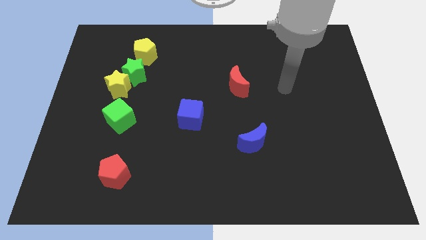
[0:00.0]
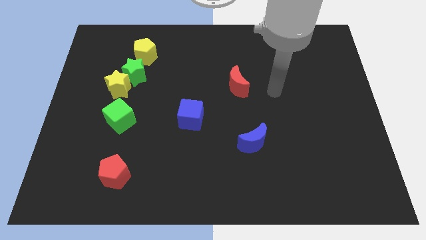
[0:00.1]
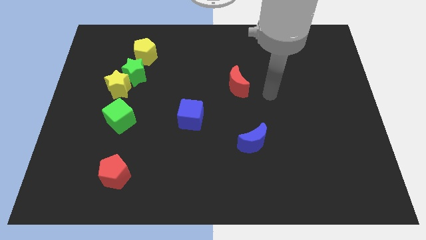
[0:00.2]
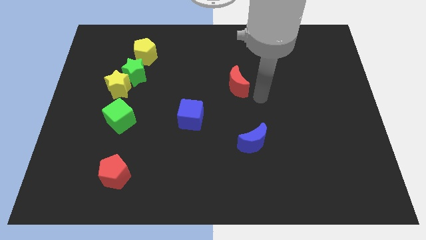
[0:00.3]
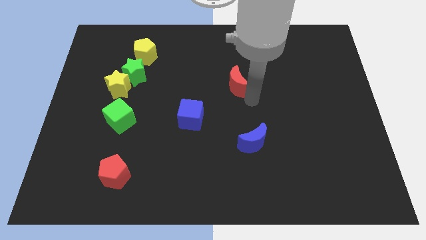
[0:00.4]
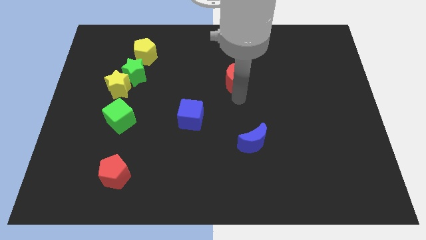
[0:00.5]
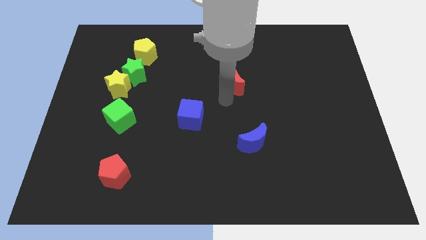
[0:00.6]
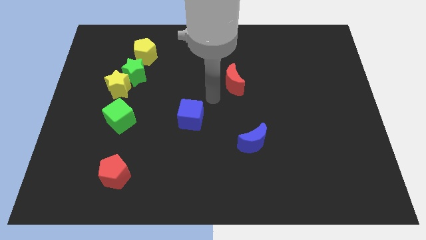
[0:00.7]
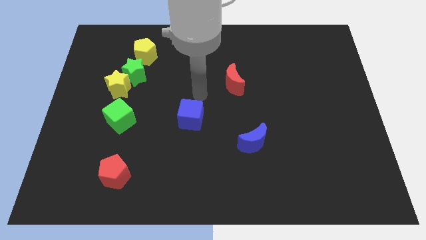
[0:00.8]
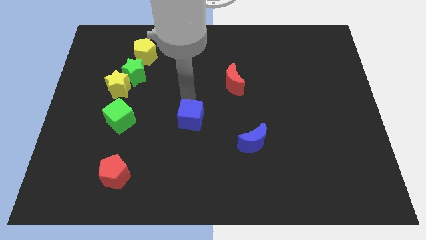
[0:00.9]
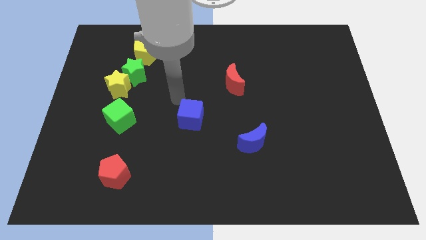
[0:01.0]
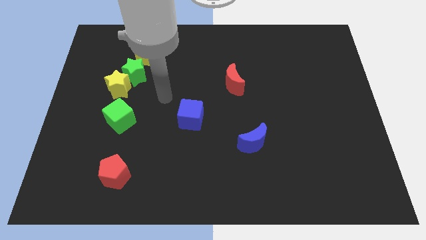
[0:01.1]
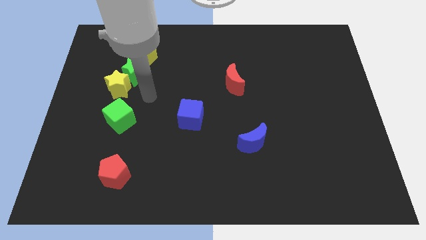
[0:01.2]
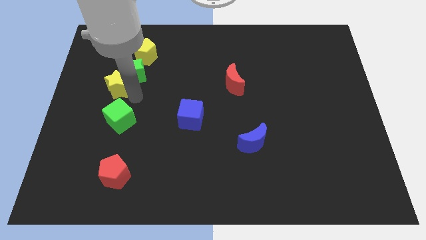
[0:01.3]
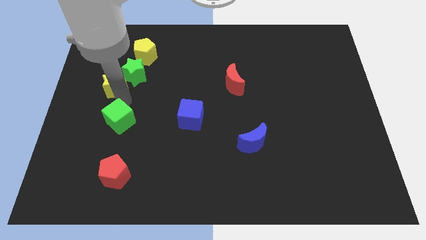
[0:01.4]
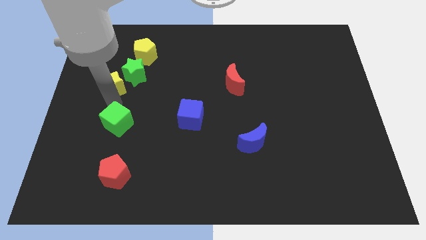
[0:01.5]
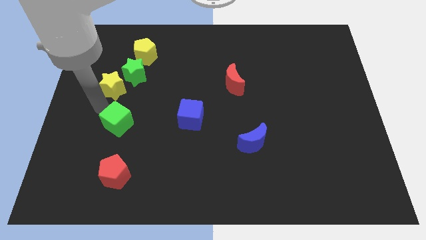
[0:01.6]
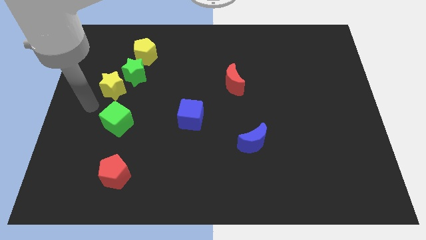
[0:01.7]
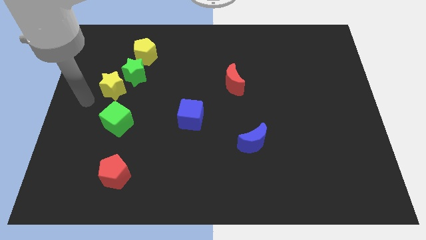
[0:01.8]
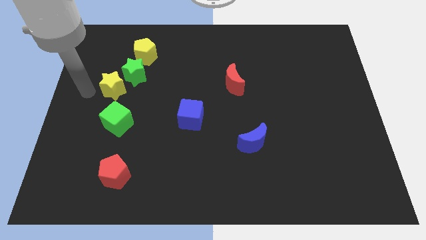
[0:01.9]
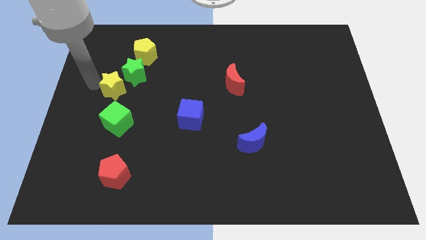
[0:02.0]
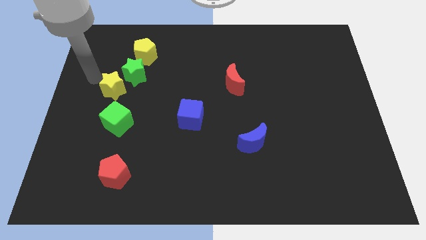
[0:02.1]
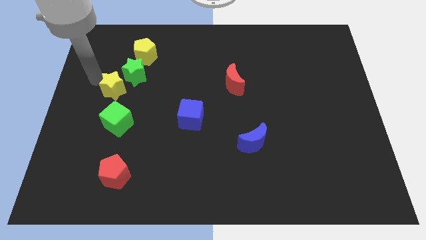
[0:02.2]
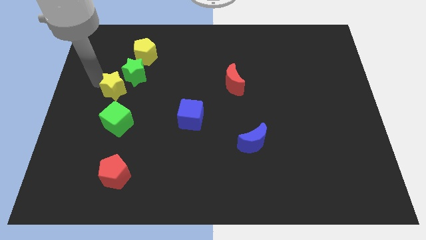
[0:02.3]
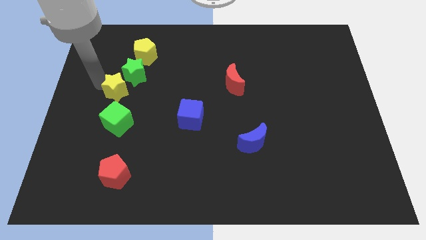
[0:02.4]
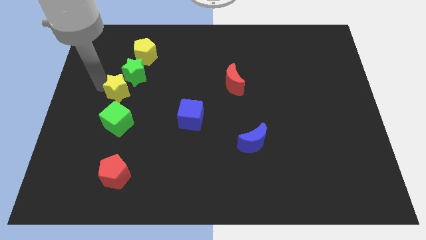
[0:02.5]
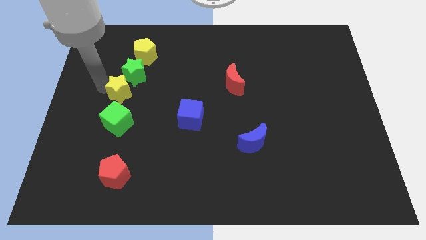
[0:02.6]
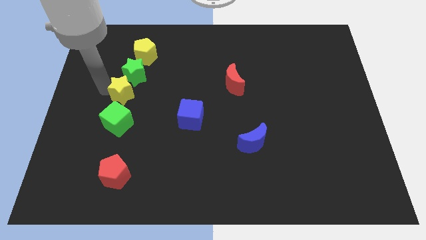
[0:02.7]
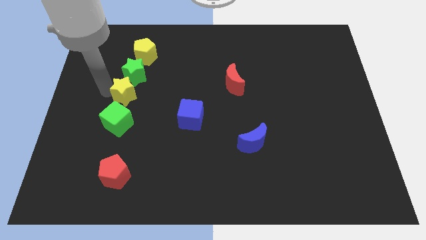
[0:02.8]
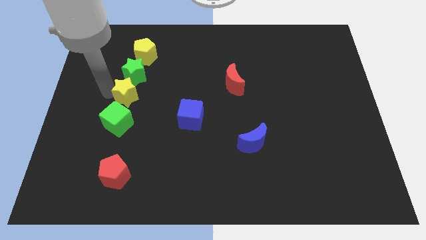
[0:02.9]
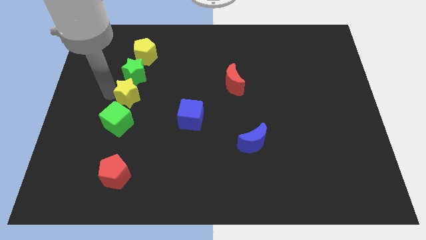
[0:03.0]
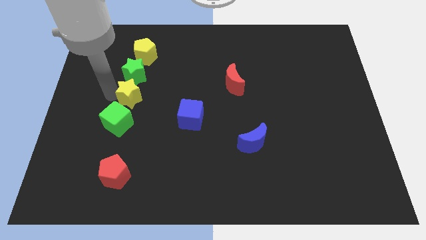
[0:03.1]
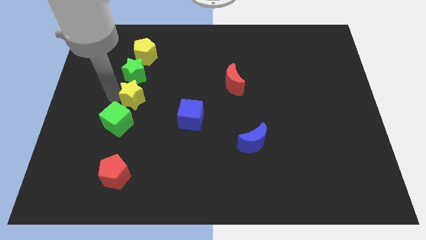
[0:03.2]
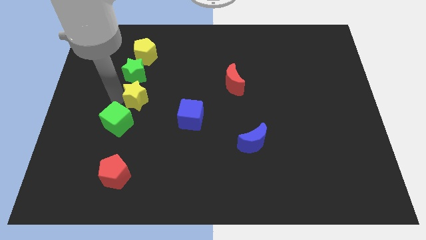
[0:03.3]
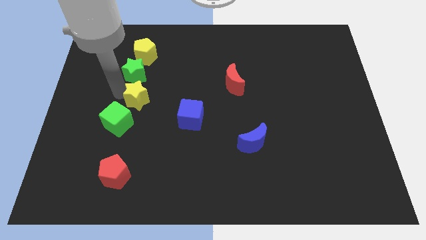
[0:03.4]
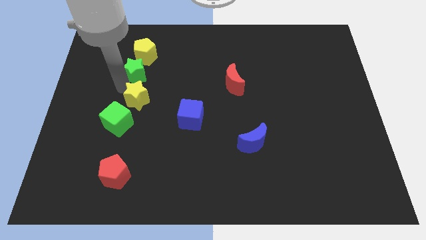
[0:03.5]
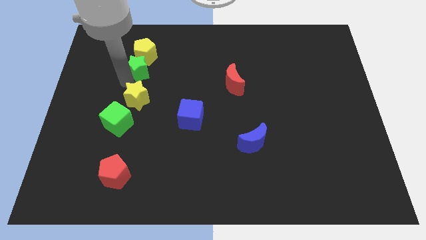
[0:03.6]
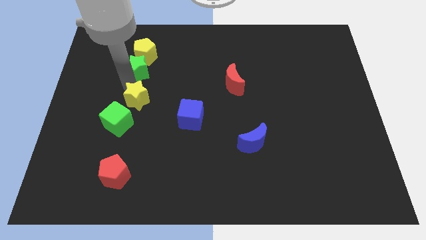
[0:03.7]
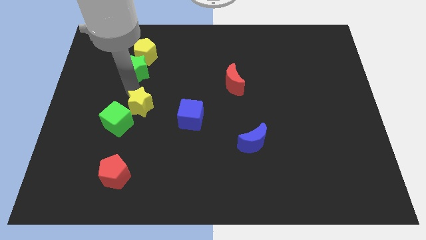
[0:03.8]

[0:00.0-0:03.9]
move the yellow star a little diagonally down and to the right

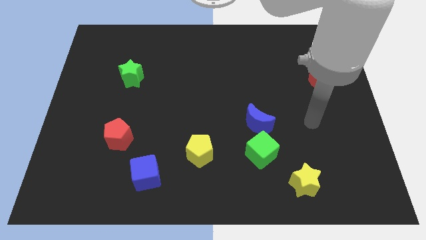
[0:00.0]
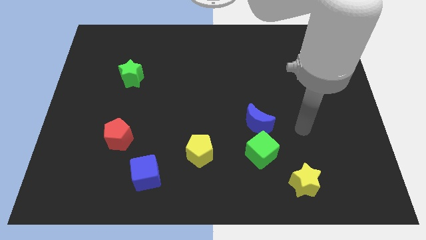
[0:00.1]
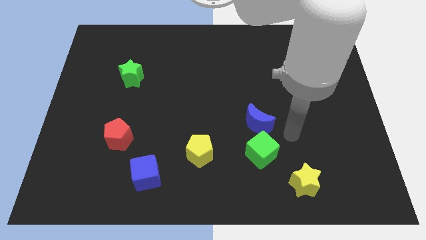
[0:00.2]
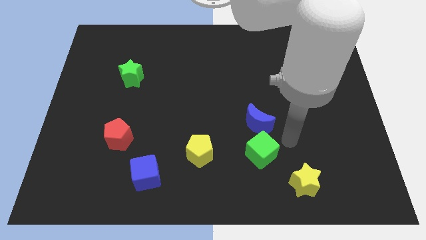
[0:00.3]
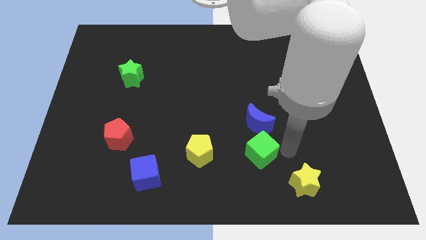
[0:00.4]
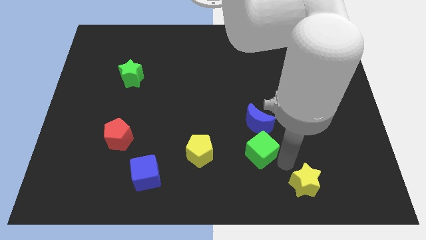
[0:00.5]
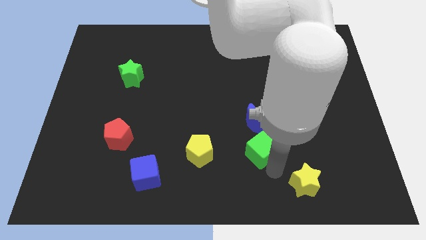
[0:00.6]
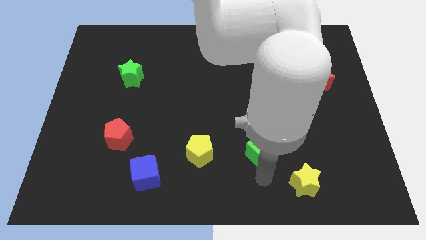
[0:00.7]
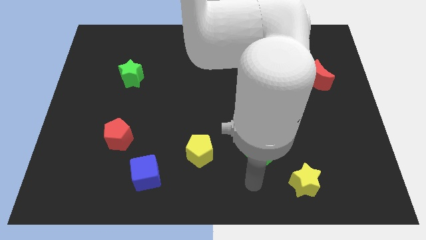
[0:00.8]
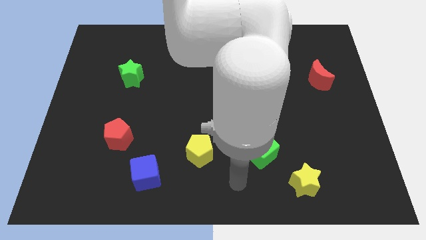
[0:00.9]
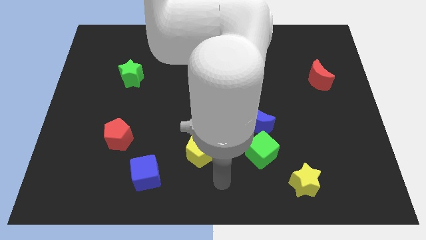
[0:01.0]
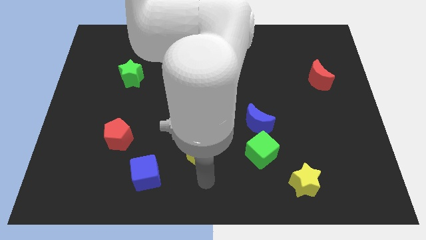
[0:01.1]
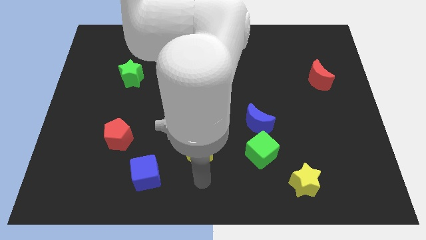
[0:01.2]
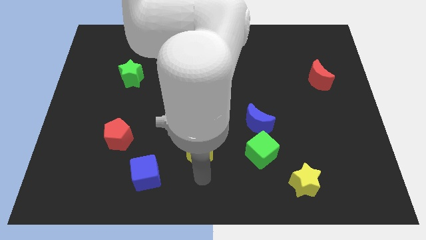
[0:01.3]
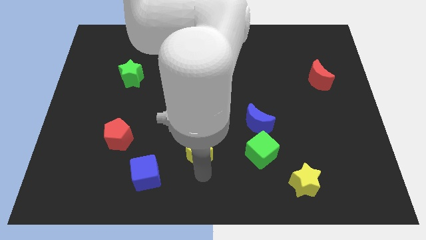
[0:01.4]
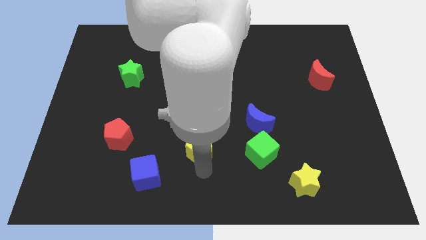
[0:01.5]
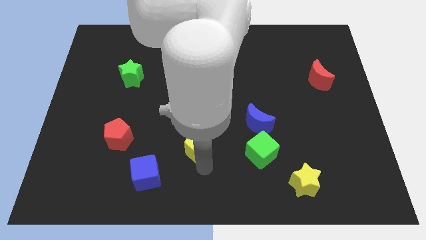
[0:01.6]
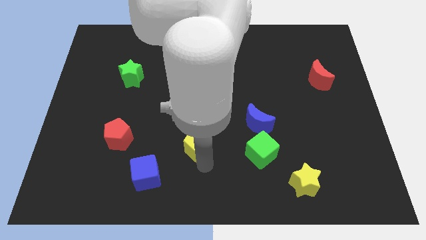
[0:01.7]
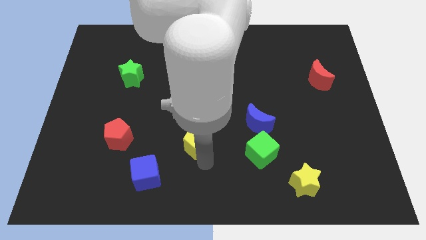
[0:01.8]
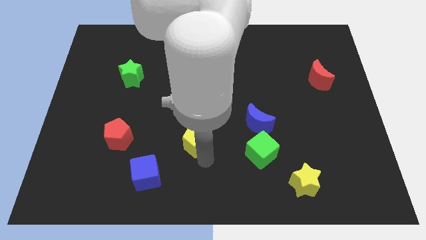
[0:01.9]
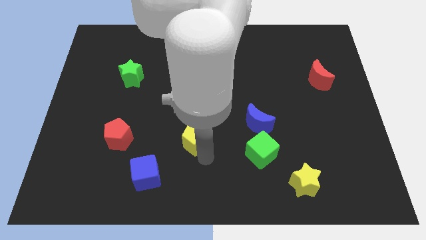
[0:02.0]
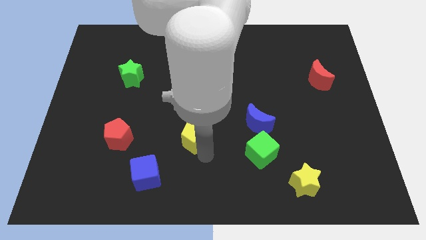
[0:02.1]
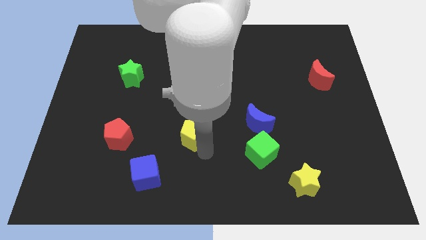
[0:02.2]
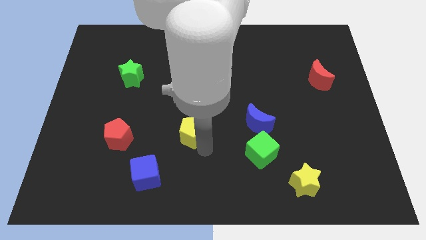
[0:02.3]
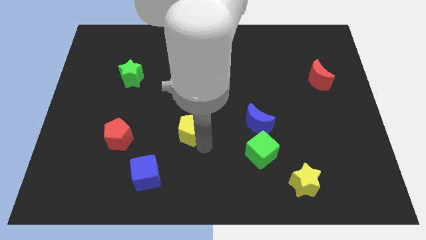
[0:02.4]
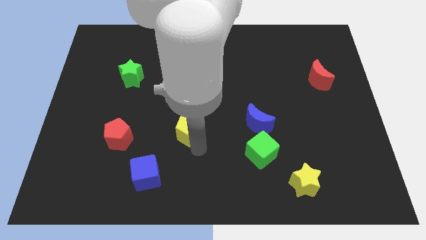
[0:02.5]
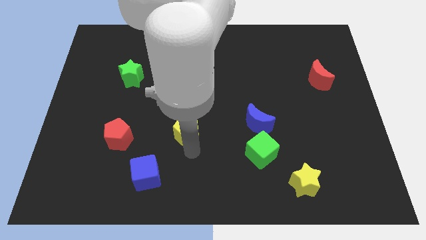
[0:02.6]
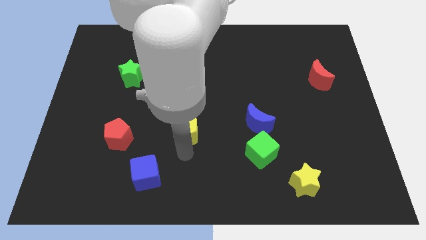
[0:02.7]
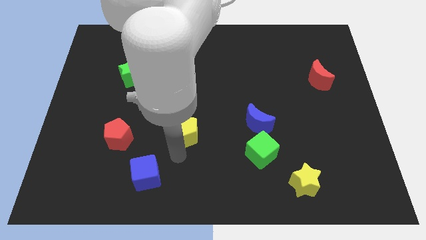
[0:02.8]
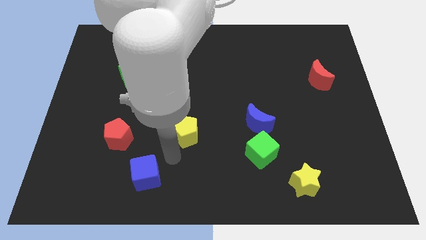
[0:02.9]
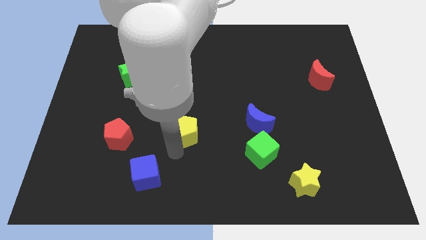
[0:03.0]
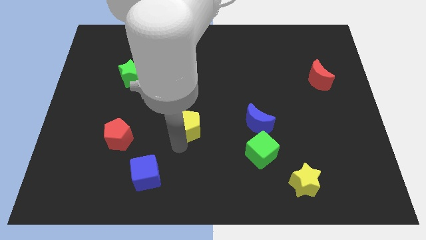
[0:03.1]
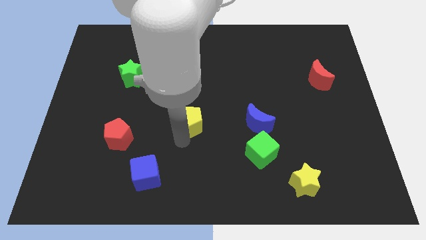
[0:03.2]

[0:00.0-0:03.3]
slightly move the yellow pentagon up

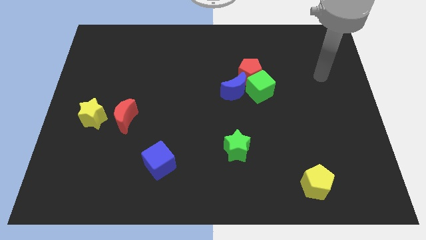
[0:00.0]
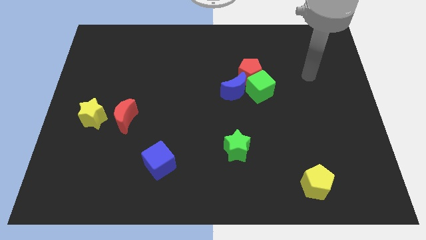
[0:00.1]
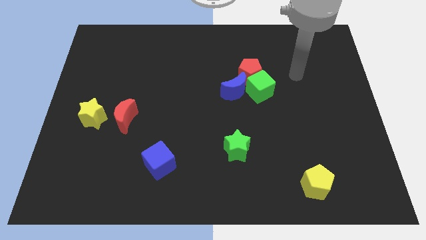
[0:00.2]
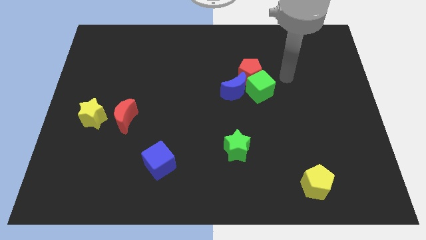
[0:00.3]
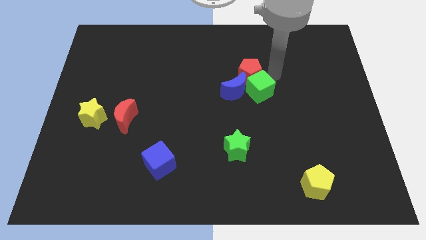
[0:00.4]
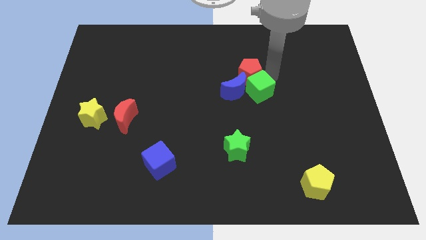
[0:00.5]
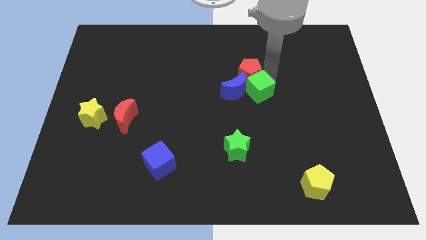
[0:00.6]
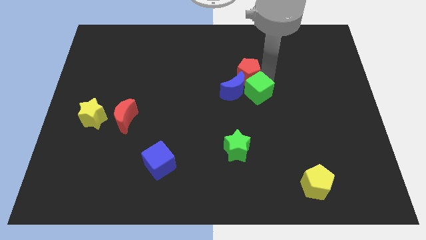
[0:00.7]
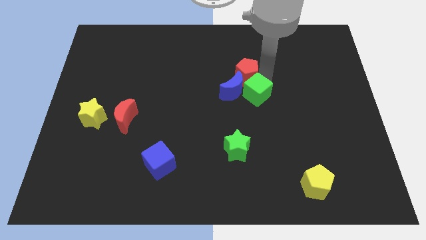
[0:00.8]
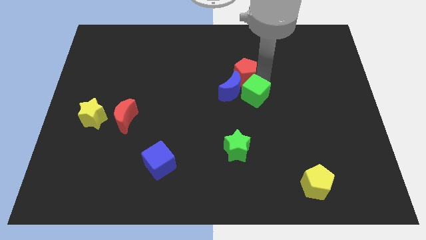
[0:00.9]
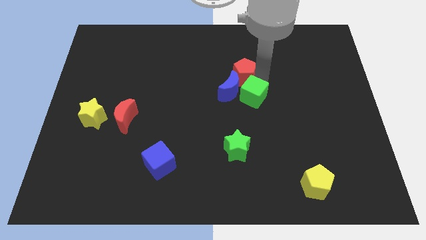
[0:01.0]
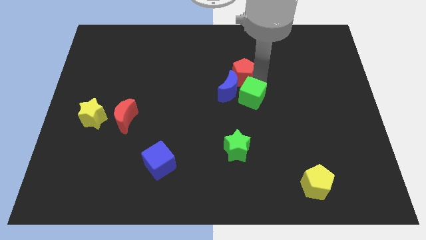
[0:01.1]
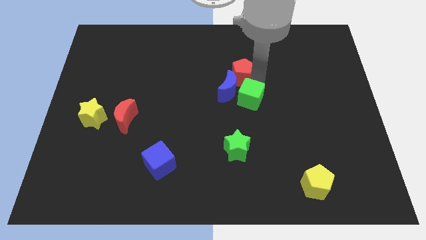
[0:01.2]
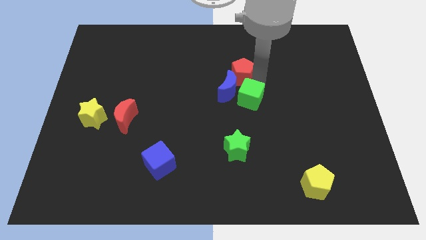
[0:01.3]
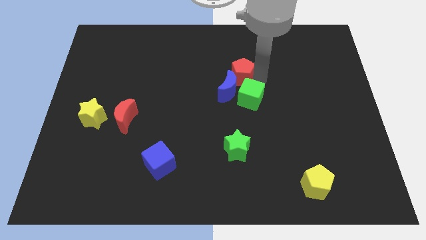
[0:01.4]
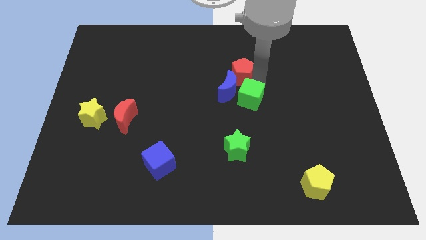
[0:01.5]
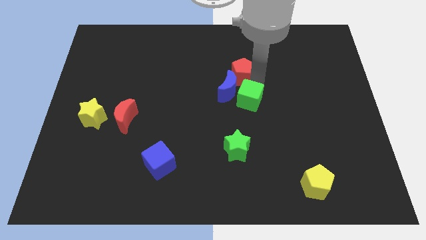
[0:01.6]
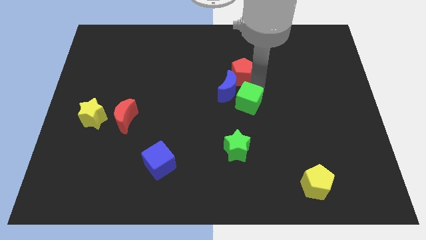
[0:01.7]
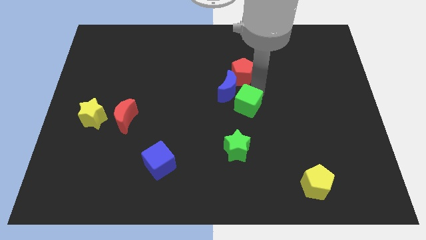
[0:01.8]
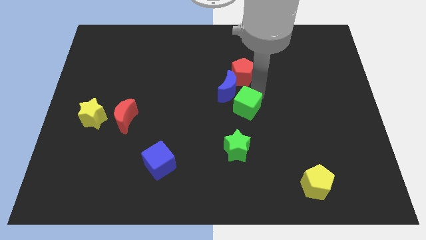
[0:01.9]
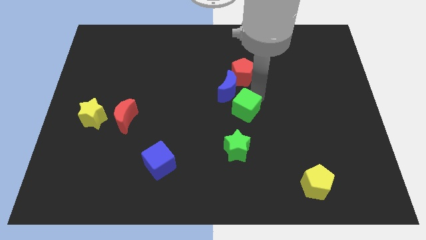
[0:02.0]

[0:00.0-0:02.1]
push the green cube a little bit down and then to the left
